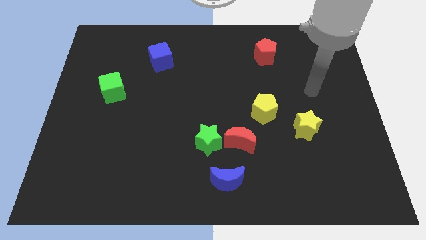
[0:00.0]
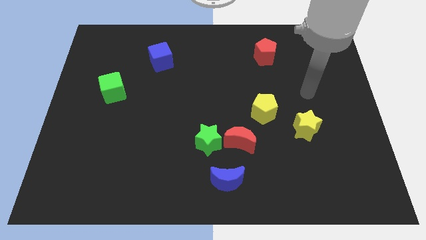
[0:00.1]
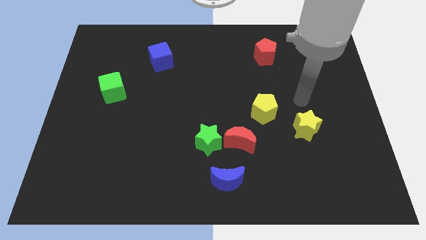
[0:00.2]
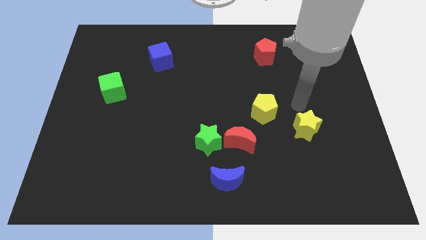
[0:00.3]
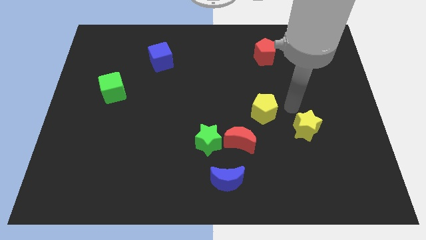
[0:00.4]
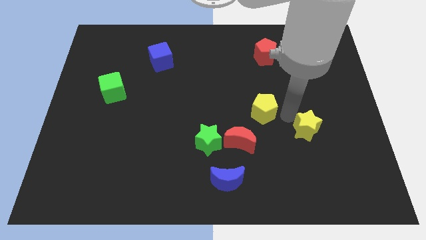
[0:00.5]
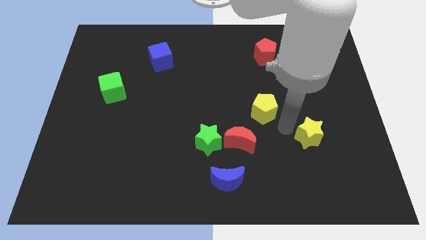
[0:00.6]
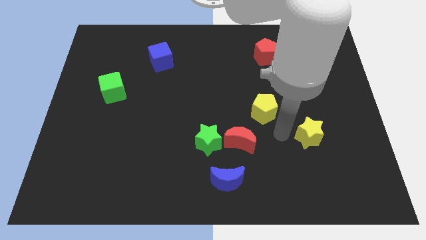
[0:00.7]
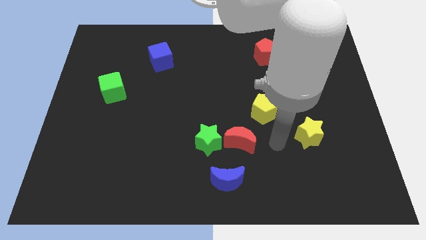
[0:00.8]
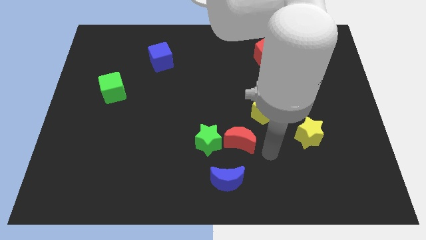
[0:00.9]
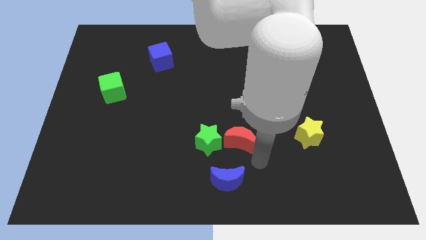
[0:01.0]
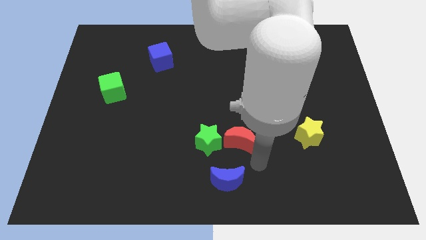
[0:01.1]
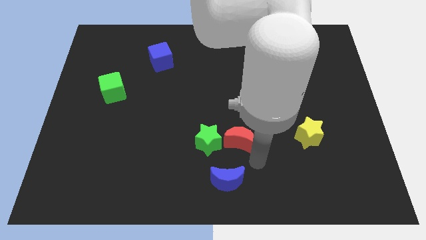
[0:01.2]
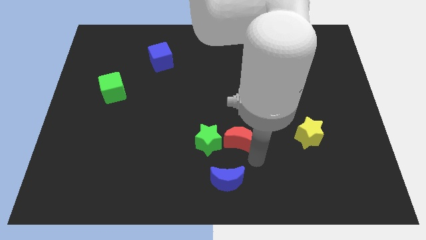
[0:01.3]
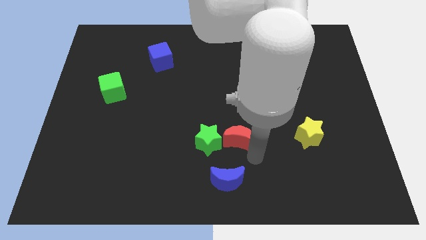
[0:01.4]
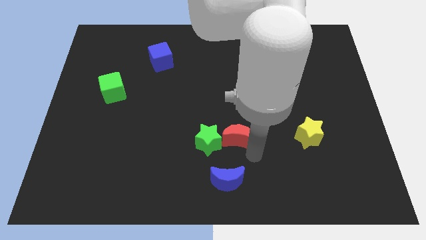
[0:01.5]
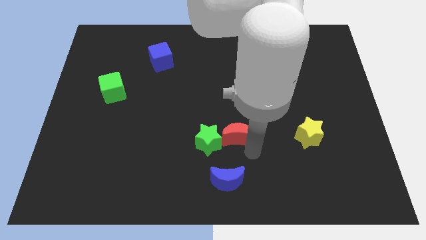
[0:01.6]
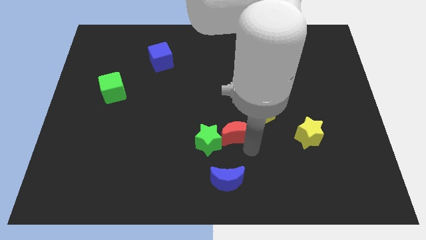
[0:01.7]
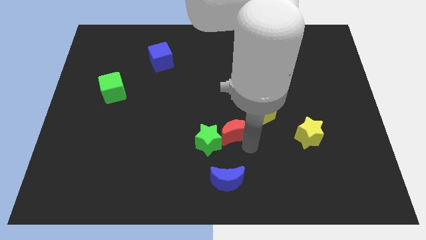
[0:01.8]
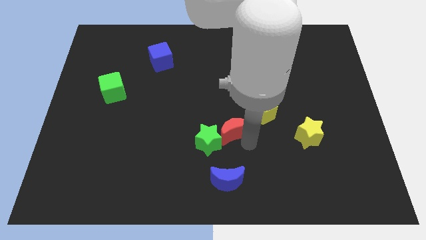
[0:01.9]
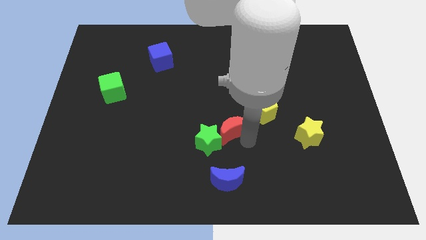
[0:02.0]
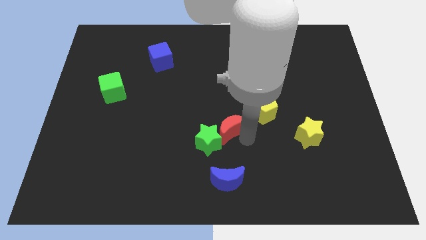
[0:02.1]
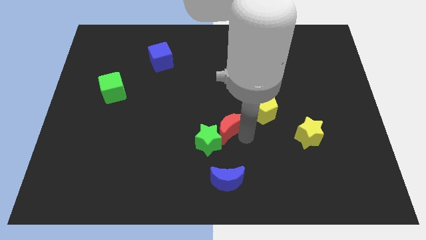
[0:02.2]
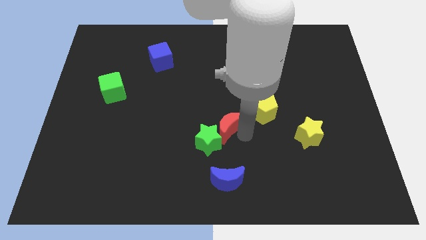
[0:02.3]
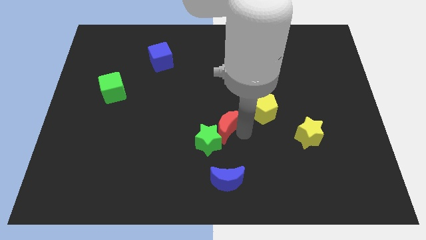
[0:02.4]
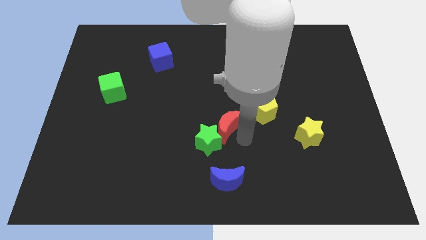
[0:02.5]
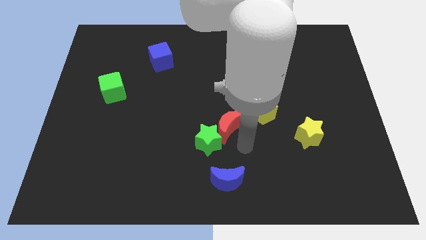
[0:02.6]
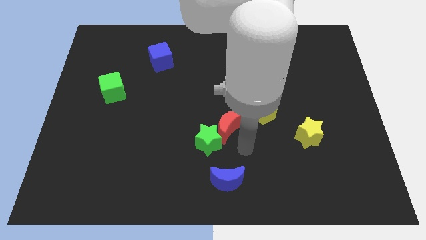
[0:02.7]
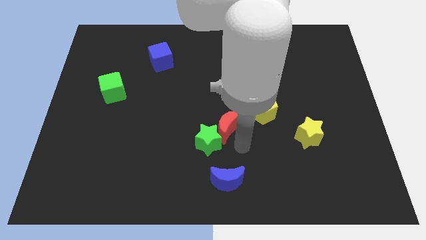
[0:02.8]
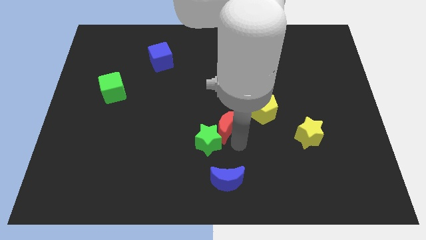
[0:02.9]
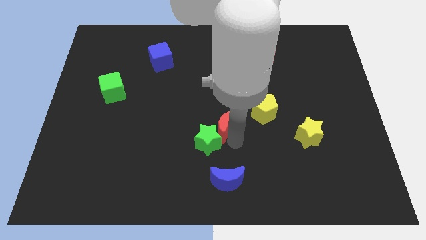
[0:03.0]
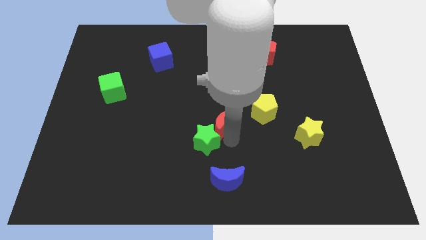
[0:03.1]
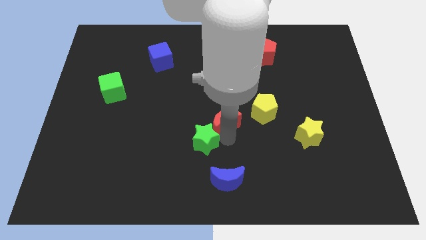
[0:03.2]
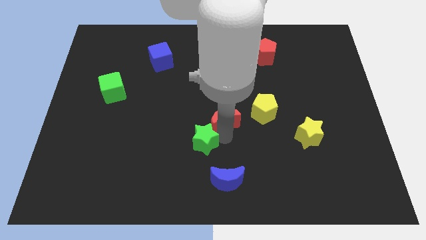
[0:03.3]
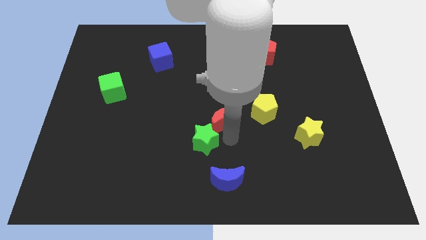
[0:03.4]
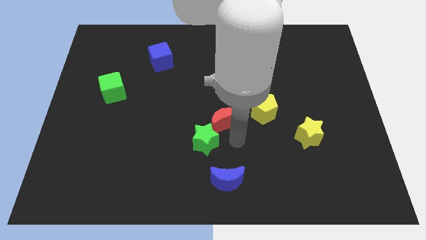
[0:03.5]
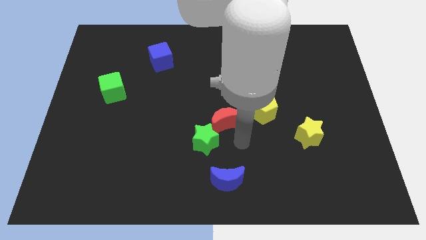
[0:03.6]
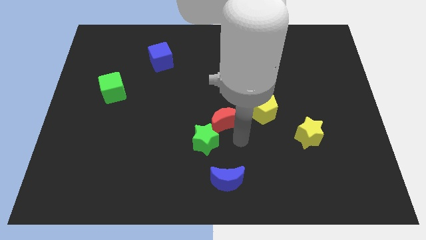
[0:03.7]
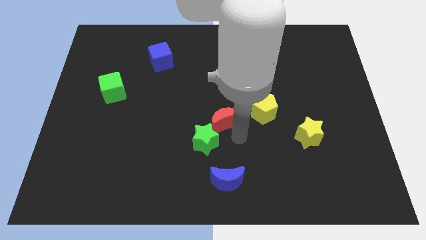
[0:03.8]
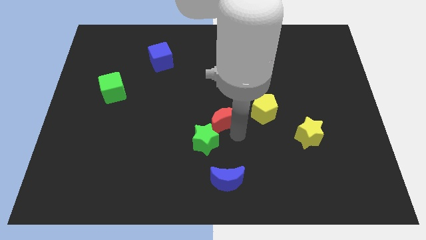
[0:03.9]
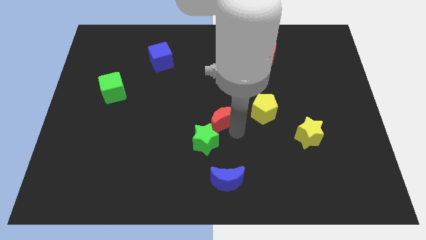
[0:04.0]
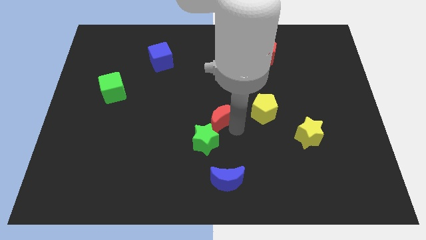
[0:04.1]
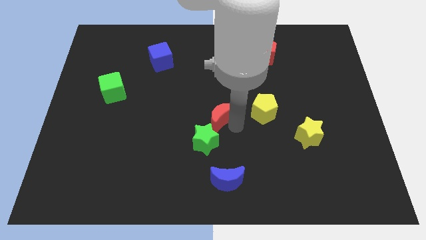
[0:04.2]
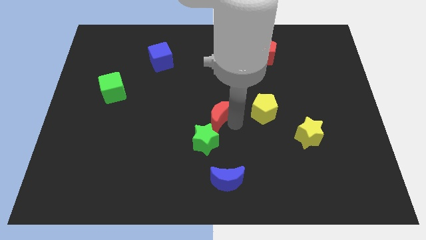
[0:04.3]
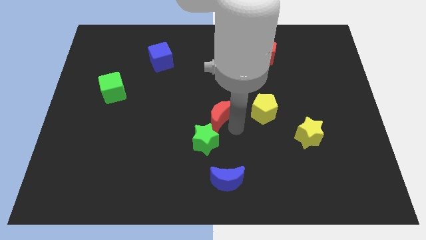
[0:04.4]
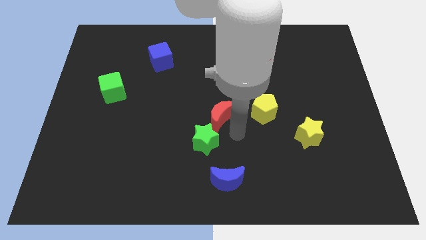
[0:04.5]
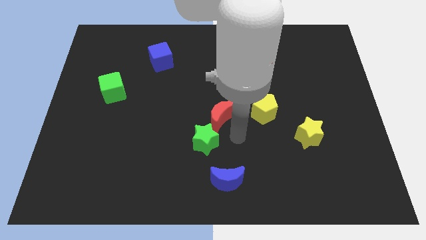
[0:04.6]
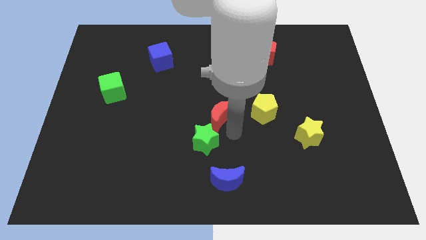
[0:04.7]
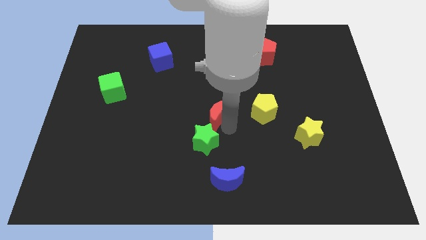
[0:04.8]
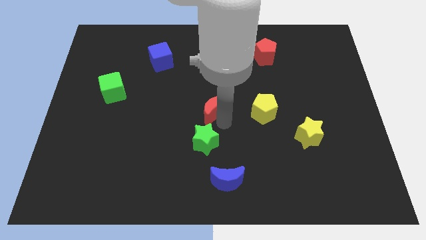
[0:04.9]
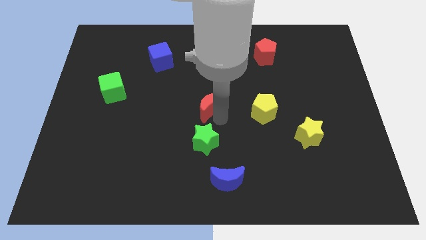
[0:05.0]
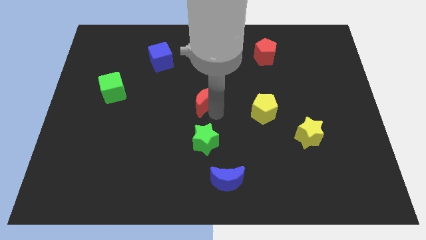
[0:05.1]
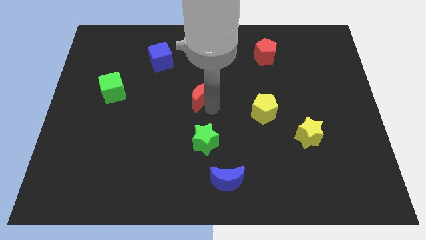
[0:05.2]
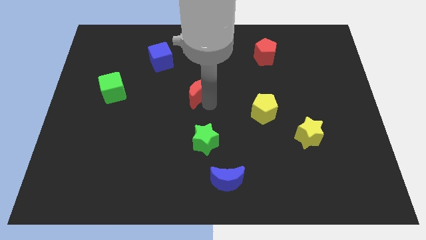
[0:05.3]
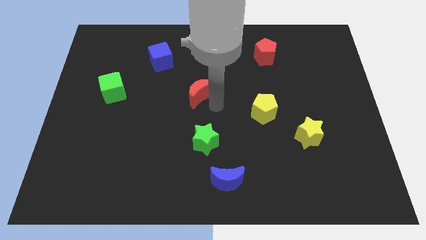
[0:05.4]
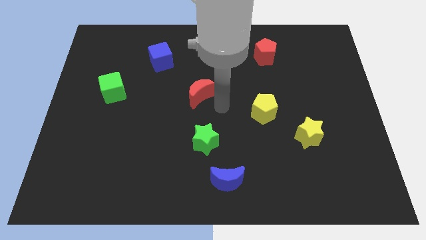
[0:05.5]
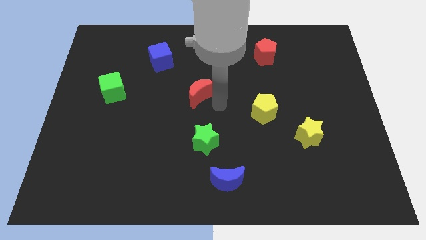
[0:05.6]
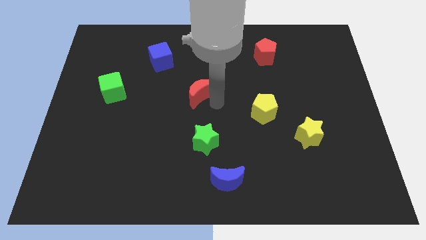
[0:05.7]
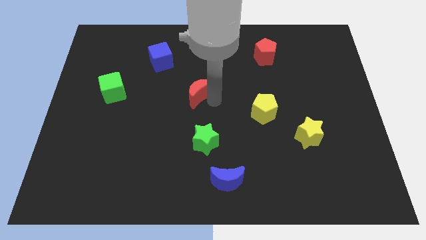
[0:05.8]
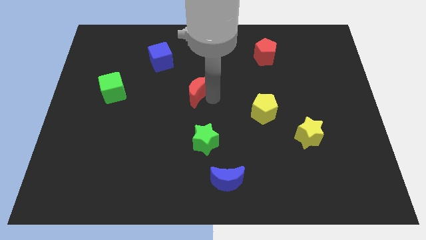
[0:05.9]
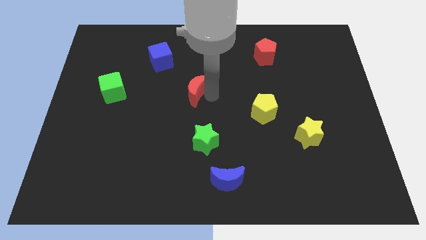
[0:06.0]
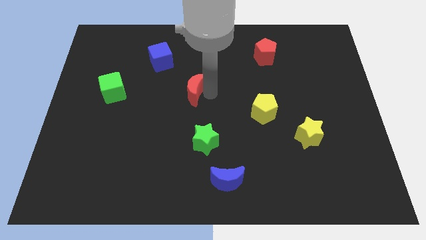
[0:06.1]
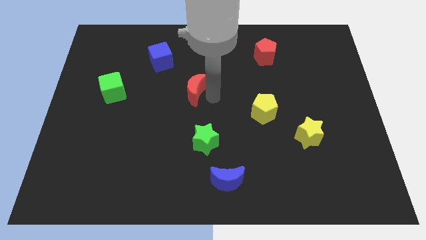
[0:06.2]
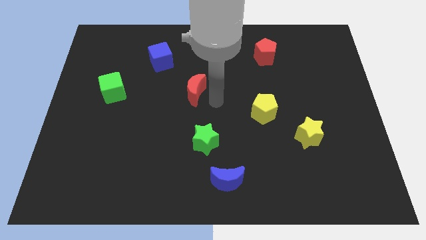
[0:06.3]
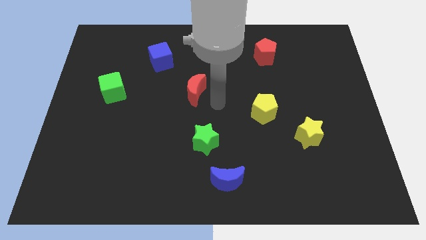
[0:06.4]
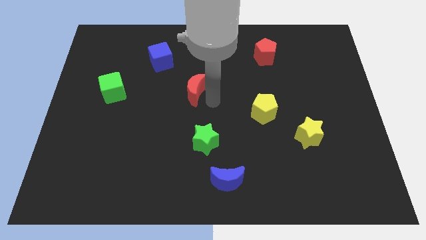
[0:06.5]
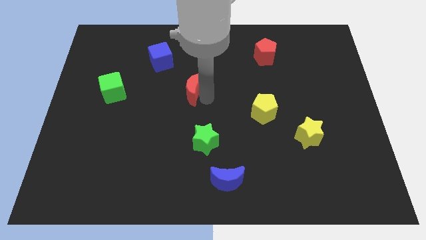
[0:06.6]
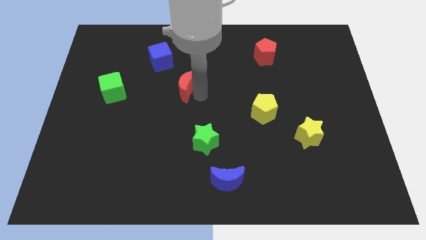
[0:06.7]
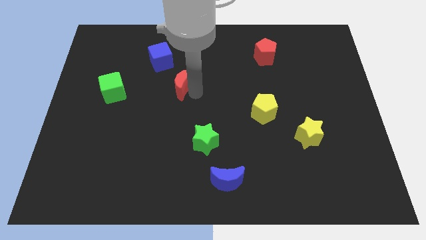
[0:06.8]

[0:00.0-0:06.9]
slide the red moon diagonally upwards and to the left

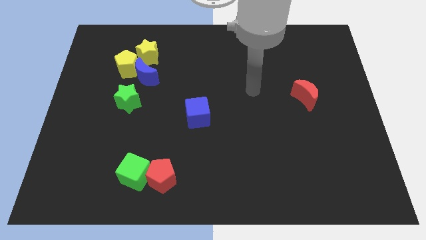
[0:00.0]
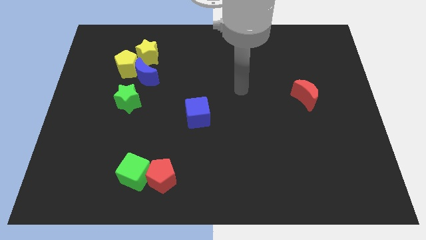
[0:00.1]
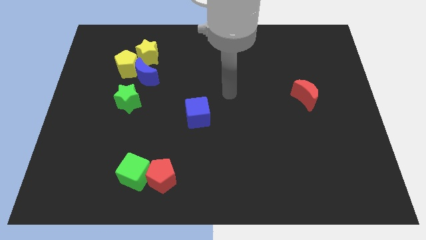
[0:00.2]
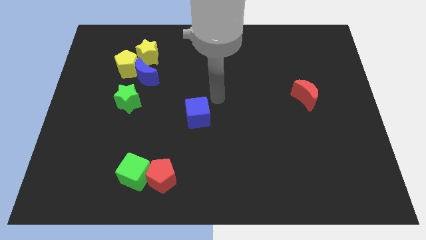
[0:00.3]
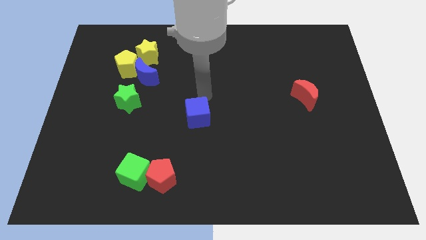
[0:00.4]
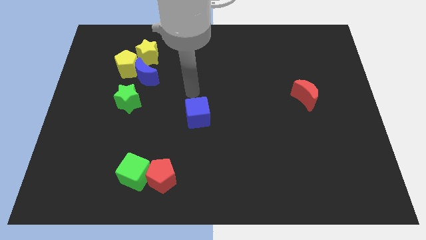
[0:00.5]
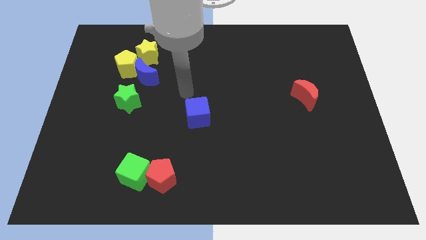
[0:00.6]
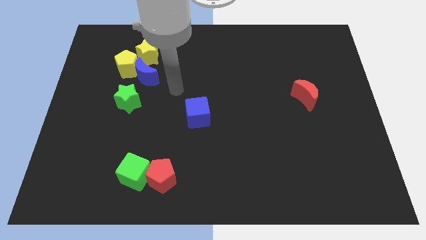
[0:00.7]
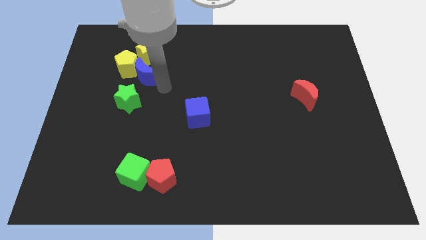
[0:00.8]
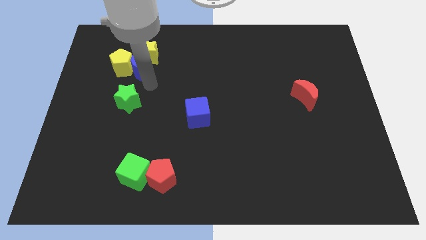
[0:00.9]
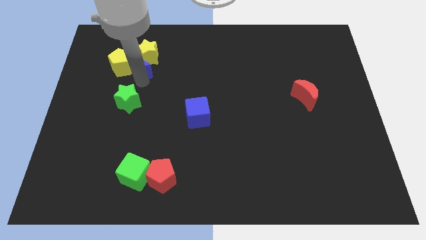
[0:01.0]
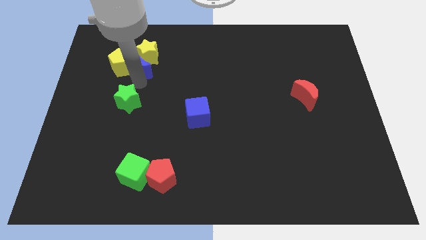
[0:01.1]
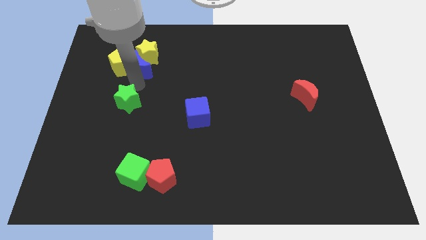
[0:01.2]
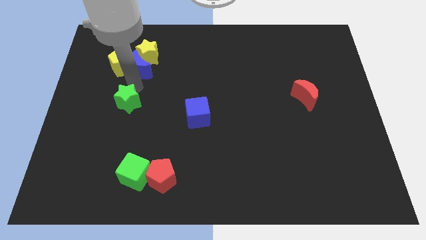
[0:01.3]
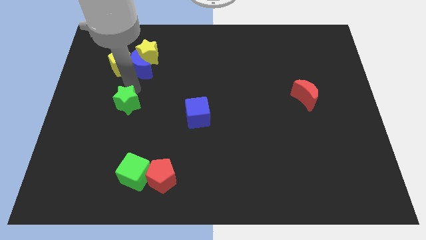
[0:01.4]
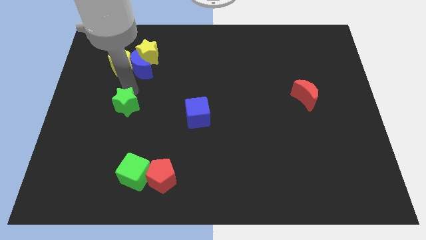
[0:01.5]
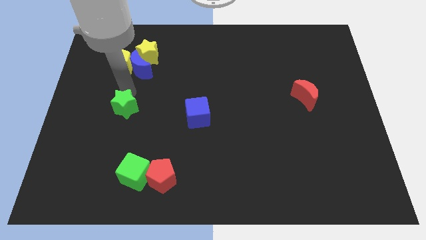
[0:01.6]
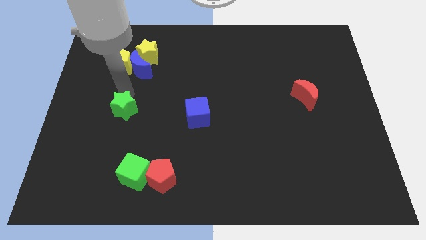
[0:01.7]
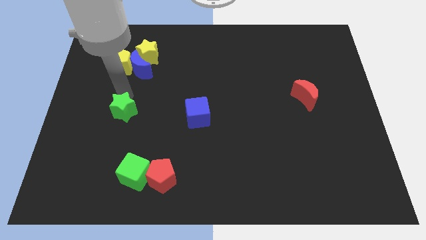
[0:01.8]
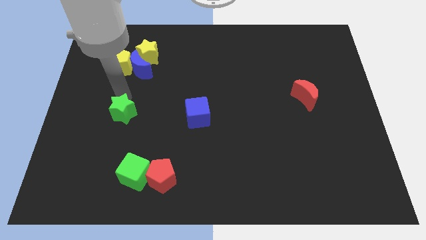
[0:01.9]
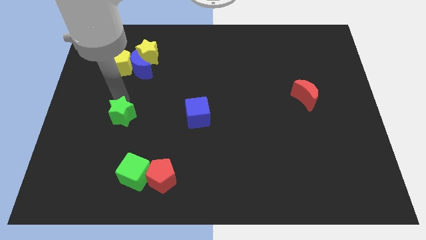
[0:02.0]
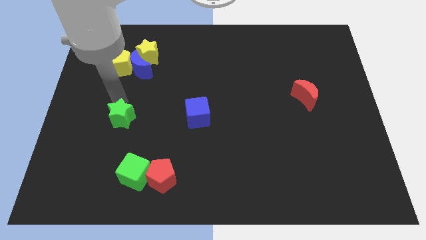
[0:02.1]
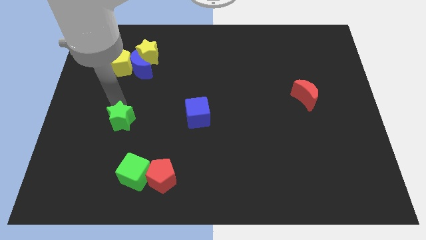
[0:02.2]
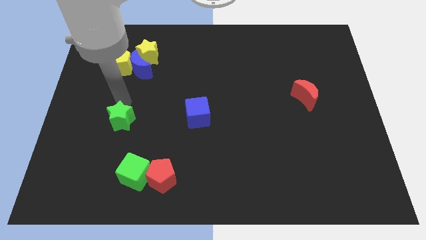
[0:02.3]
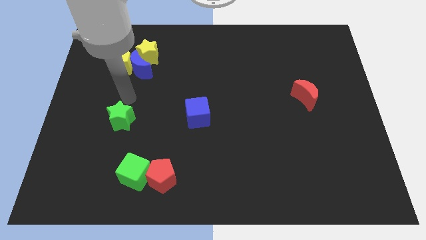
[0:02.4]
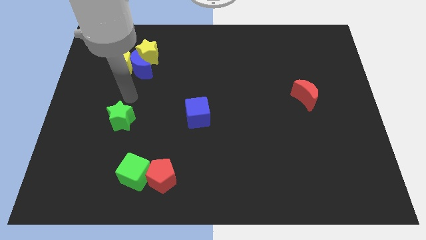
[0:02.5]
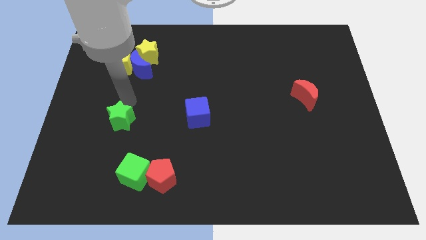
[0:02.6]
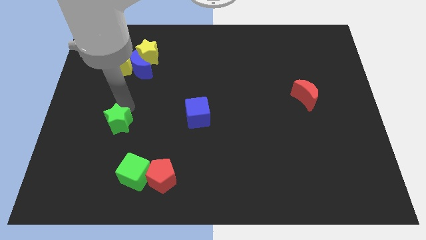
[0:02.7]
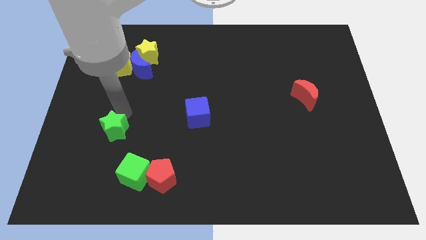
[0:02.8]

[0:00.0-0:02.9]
slightly move the green star downwards
